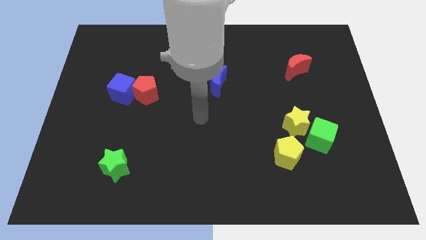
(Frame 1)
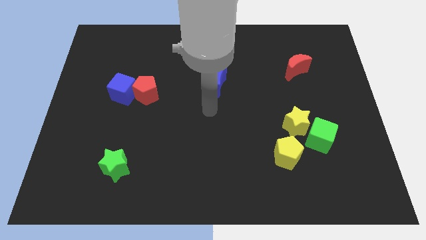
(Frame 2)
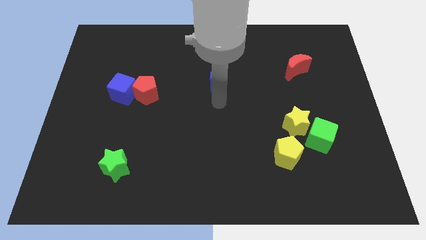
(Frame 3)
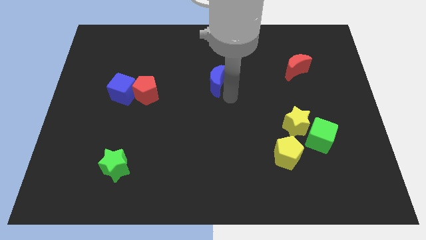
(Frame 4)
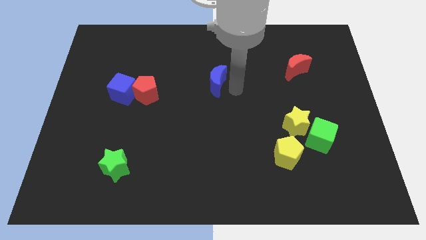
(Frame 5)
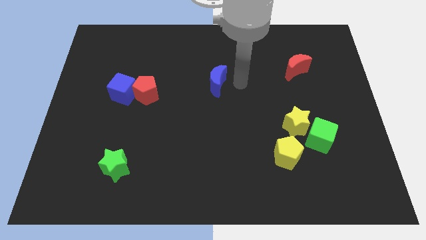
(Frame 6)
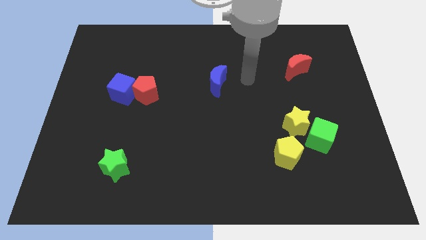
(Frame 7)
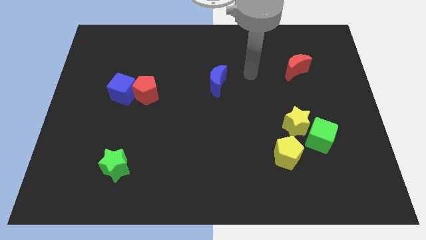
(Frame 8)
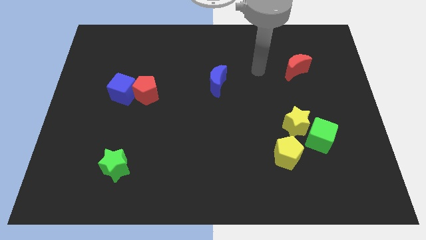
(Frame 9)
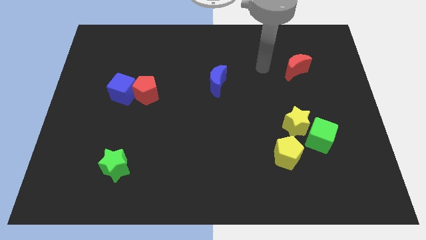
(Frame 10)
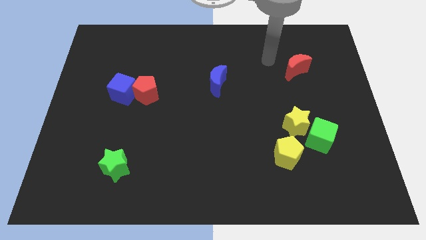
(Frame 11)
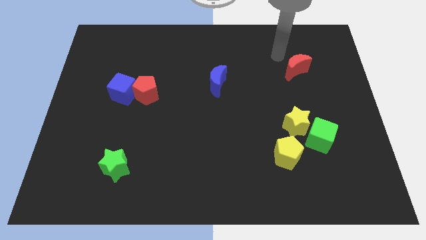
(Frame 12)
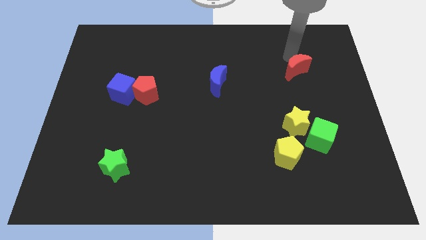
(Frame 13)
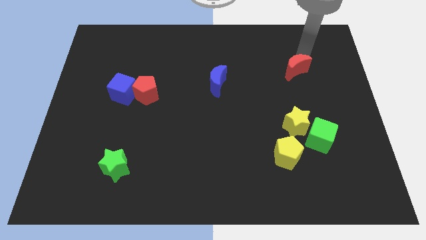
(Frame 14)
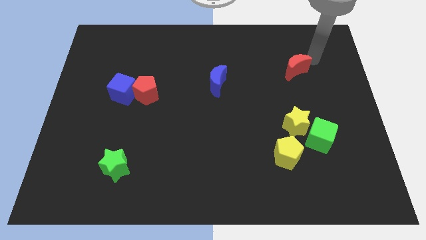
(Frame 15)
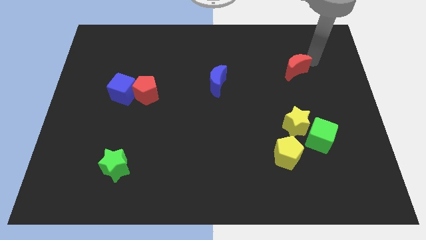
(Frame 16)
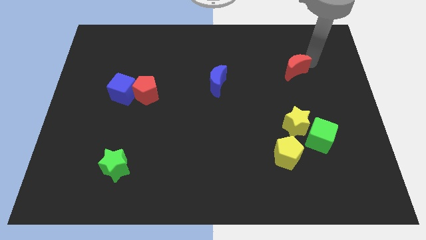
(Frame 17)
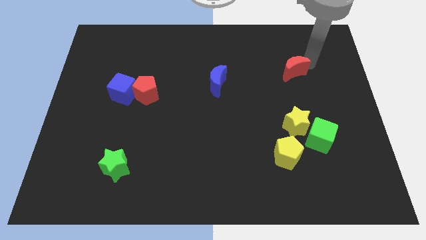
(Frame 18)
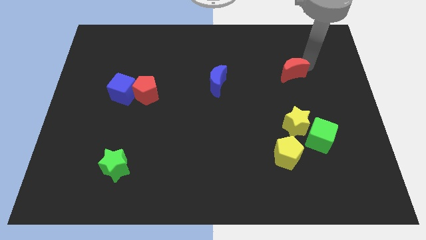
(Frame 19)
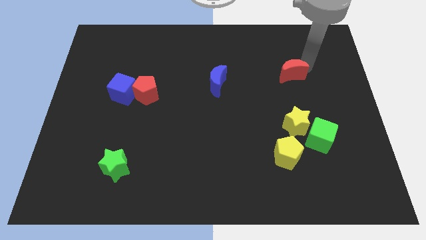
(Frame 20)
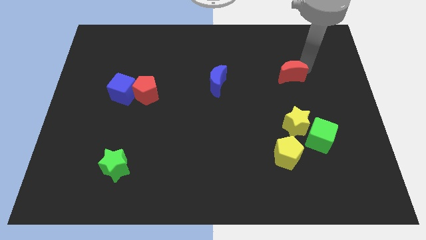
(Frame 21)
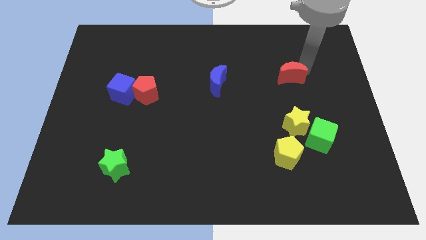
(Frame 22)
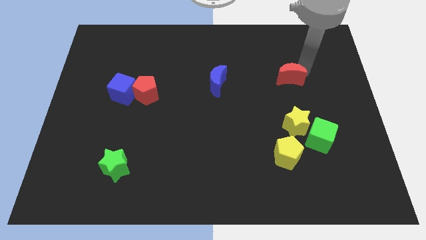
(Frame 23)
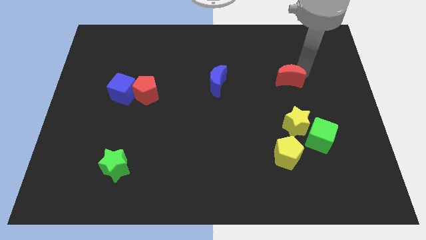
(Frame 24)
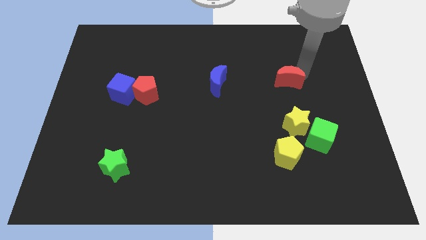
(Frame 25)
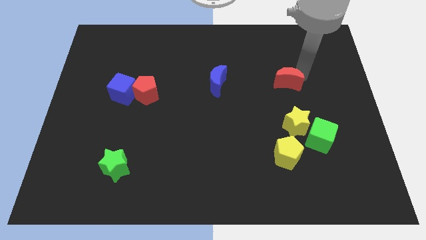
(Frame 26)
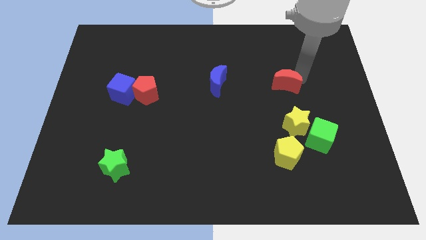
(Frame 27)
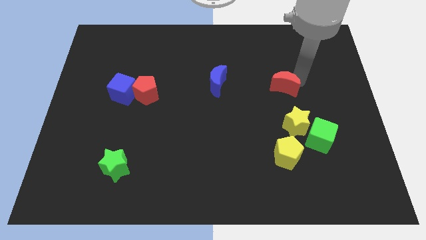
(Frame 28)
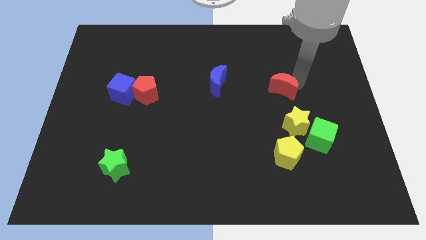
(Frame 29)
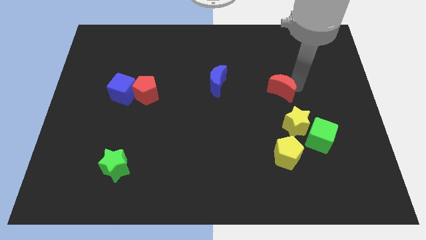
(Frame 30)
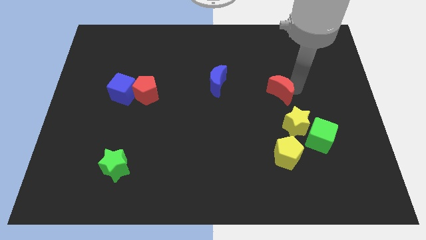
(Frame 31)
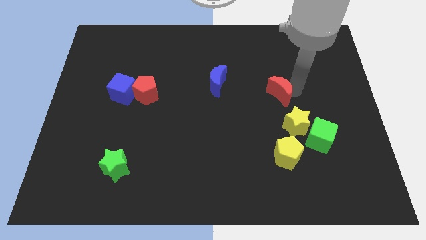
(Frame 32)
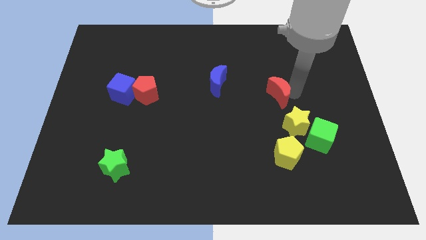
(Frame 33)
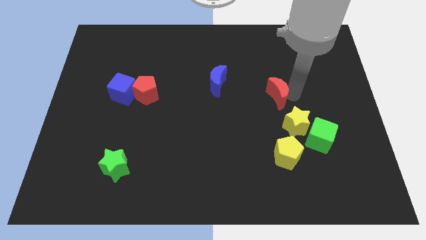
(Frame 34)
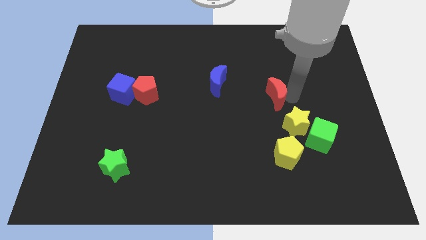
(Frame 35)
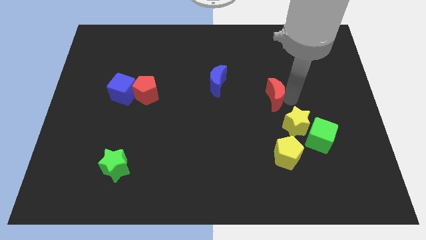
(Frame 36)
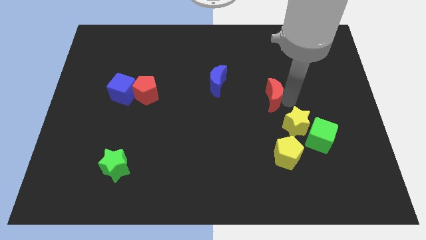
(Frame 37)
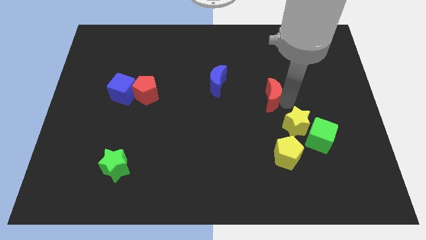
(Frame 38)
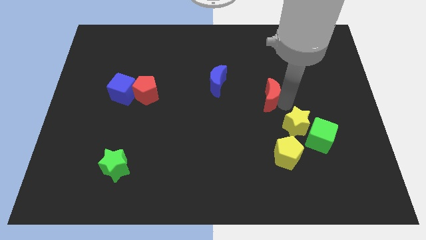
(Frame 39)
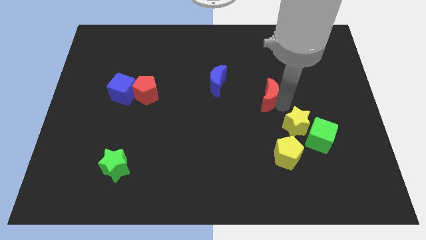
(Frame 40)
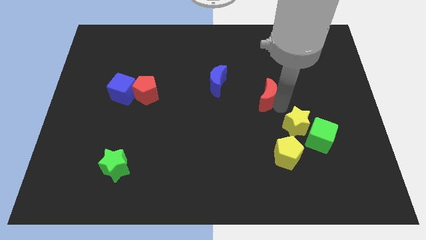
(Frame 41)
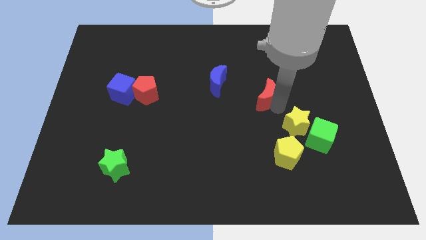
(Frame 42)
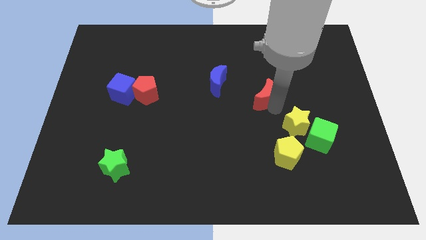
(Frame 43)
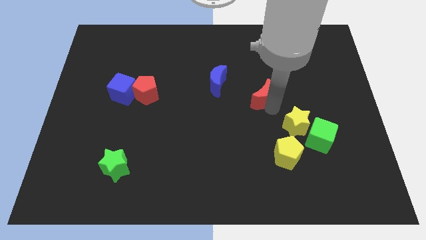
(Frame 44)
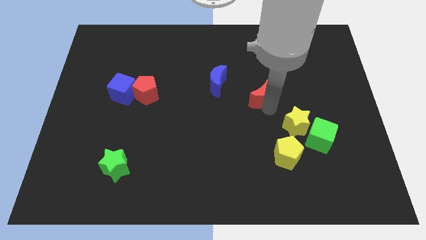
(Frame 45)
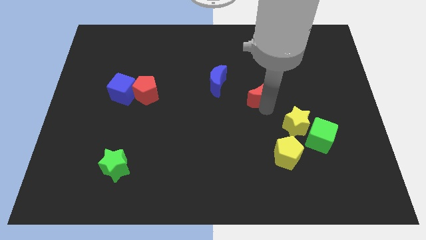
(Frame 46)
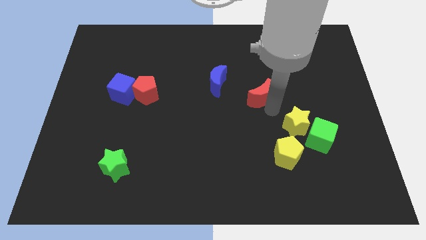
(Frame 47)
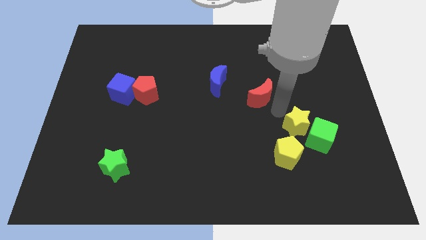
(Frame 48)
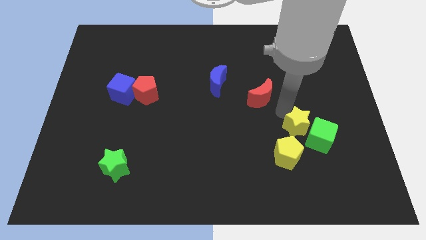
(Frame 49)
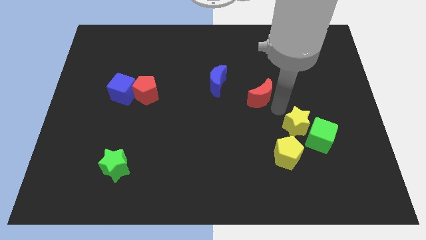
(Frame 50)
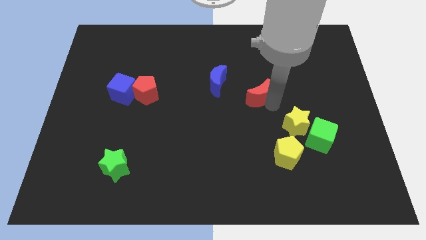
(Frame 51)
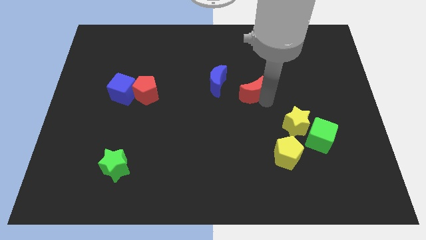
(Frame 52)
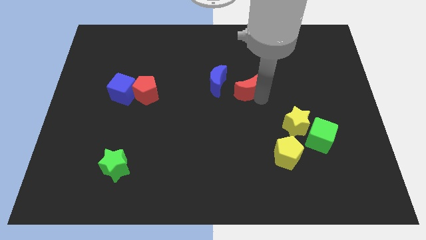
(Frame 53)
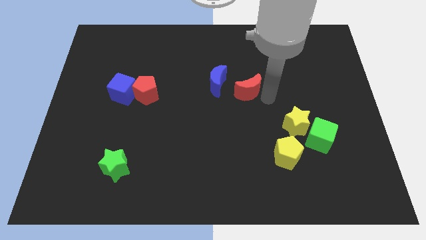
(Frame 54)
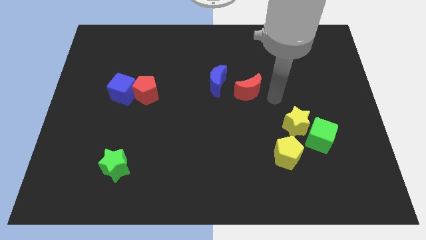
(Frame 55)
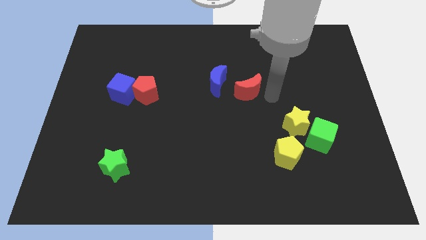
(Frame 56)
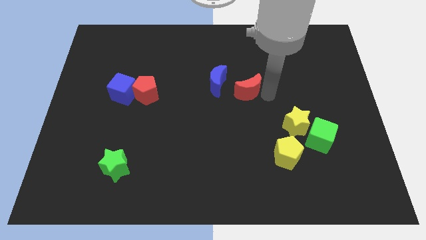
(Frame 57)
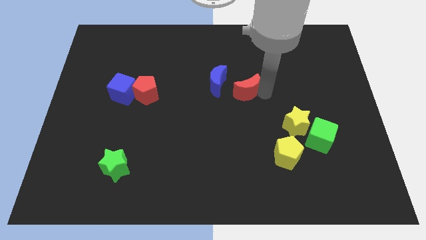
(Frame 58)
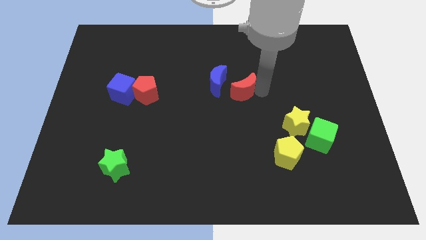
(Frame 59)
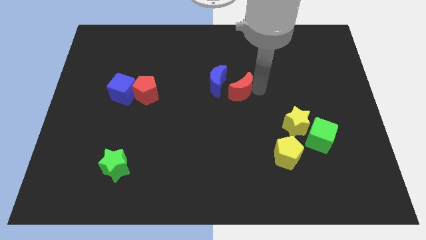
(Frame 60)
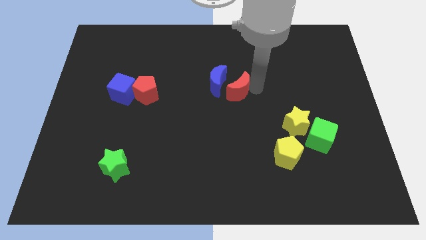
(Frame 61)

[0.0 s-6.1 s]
push the red moon close to the blue moon

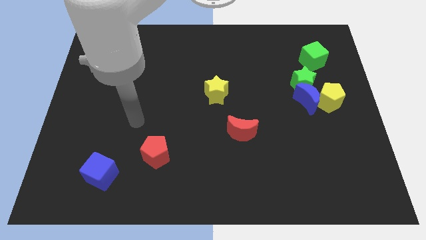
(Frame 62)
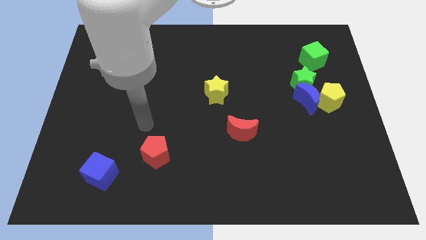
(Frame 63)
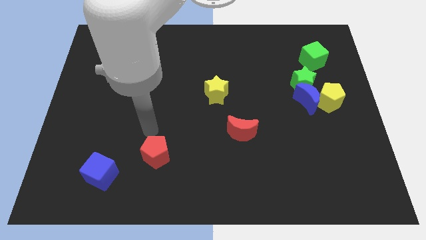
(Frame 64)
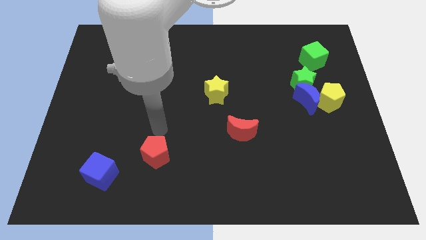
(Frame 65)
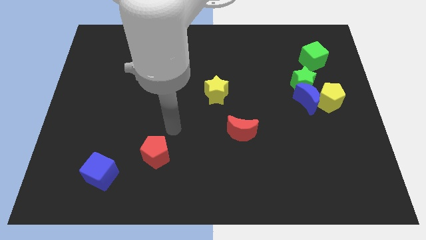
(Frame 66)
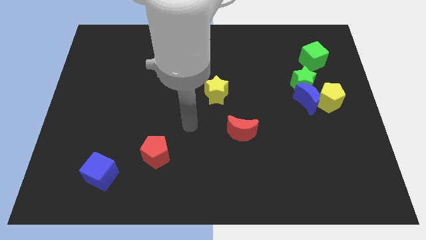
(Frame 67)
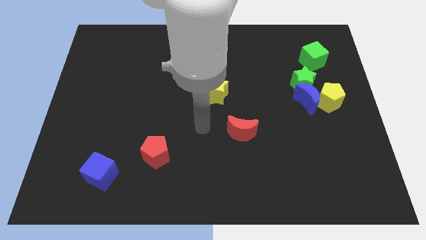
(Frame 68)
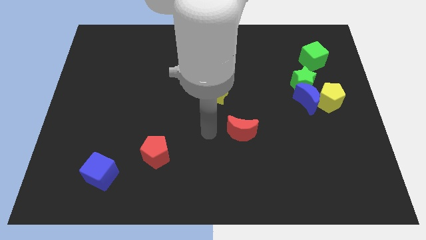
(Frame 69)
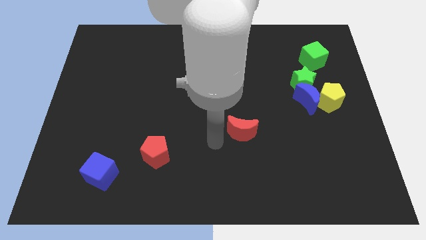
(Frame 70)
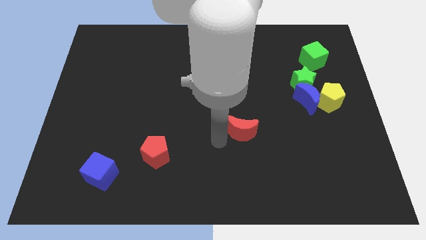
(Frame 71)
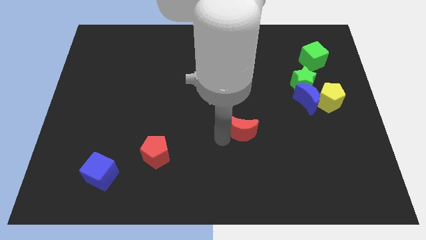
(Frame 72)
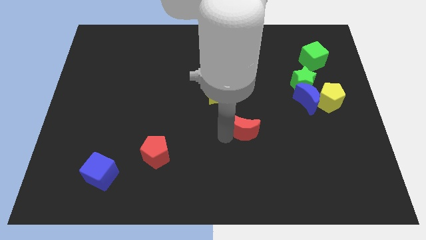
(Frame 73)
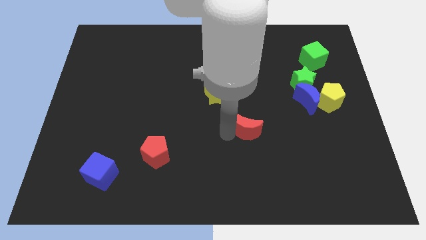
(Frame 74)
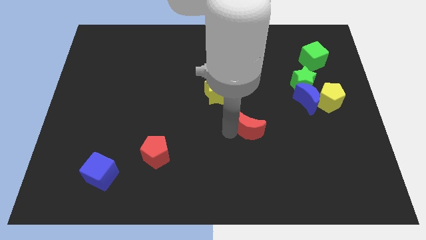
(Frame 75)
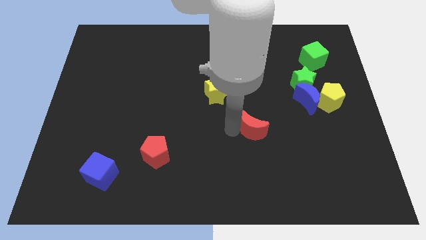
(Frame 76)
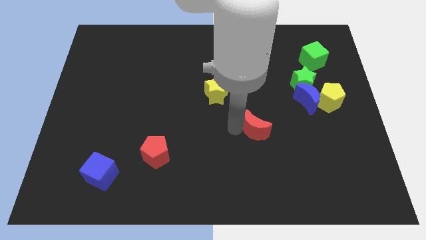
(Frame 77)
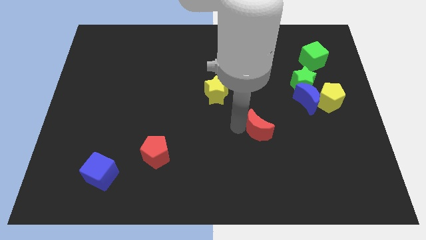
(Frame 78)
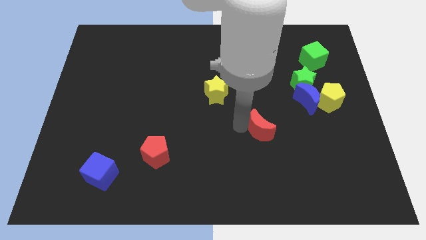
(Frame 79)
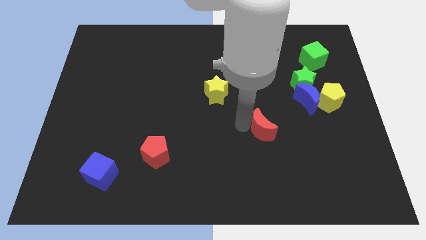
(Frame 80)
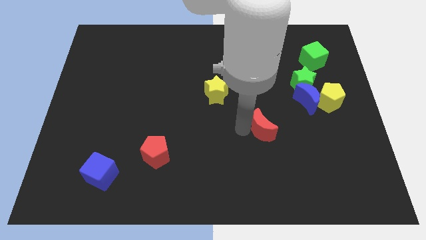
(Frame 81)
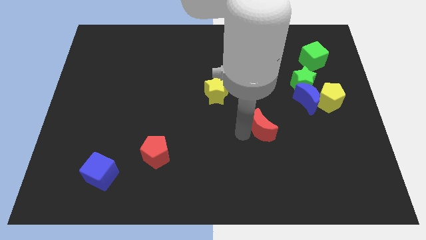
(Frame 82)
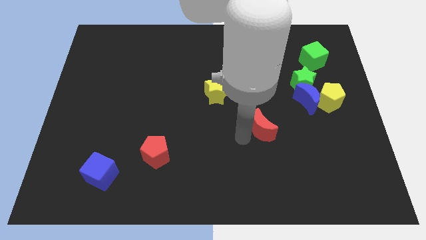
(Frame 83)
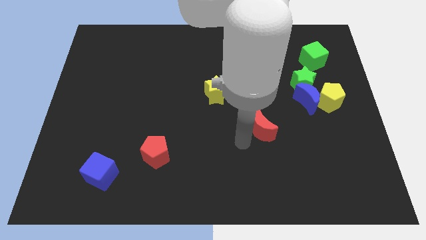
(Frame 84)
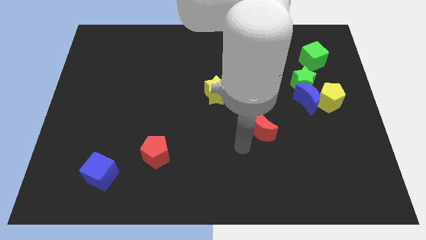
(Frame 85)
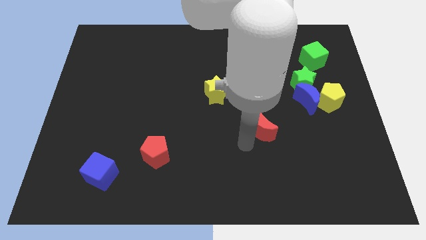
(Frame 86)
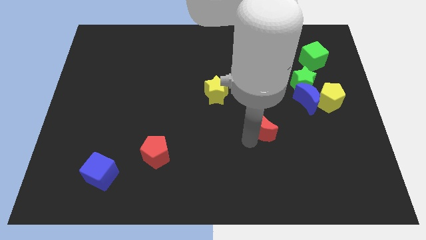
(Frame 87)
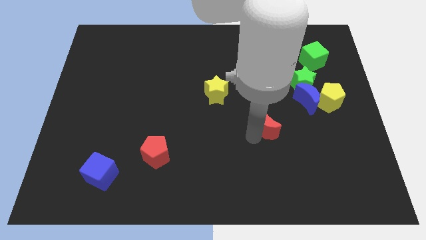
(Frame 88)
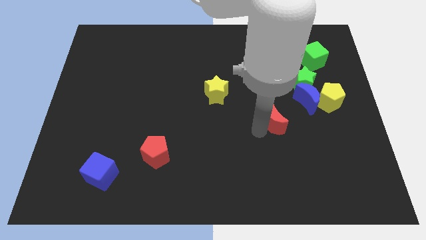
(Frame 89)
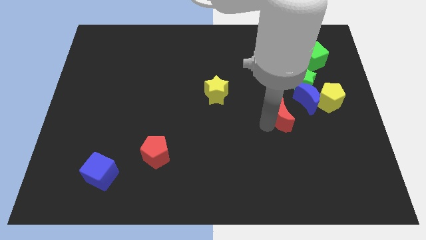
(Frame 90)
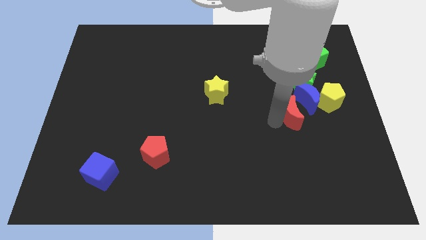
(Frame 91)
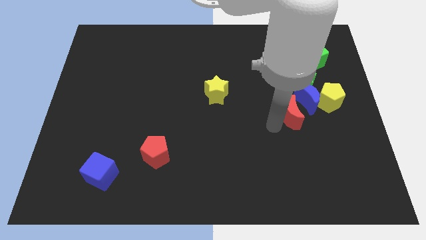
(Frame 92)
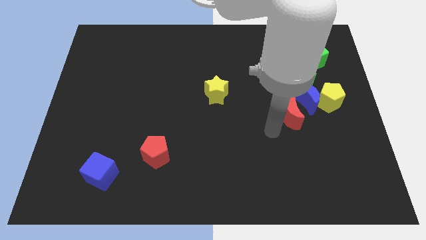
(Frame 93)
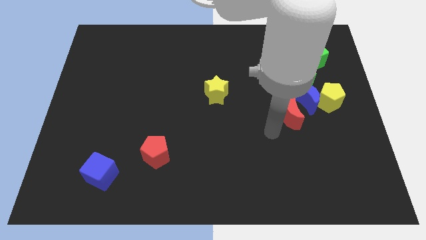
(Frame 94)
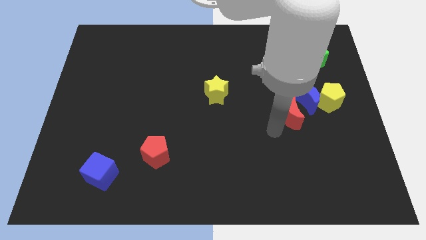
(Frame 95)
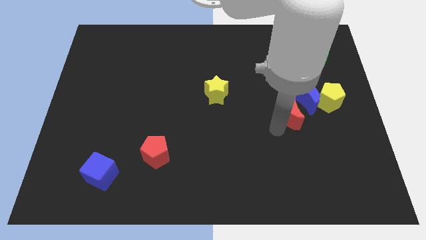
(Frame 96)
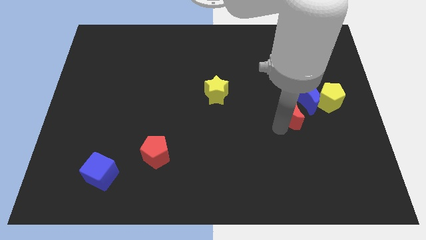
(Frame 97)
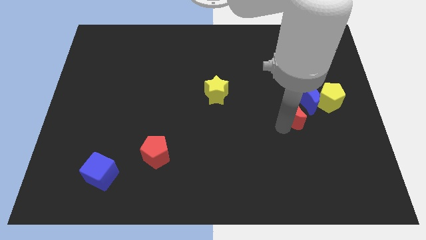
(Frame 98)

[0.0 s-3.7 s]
move the red moon next to the blue moon
